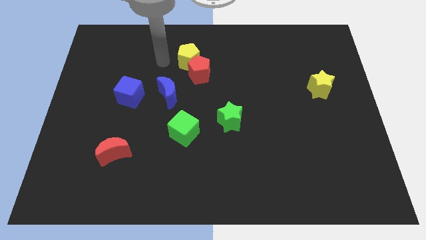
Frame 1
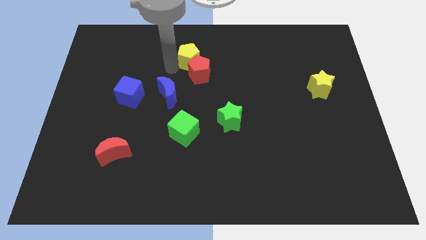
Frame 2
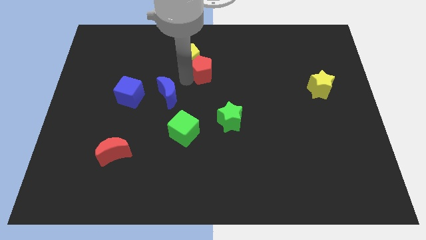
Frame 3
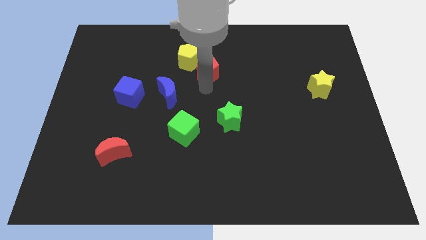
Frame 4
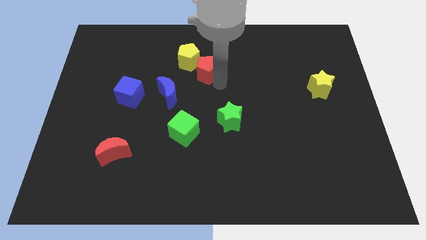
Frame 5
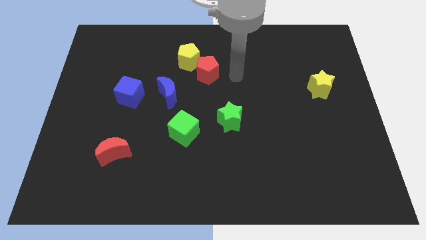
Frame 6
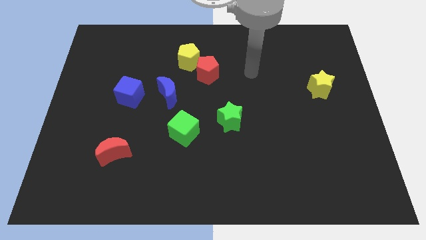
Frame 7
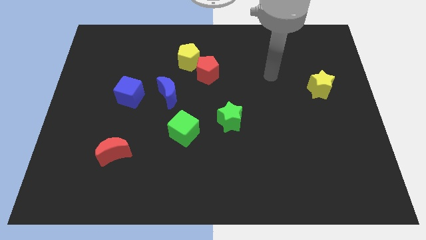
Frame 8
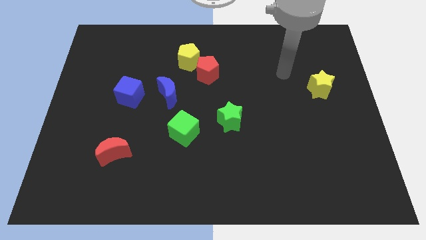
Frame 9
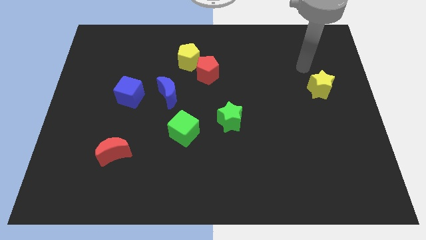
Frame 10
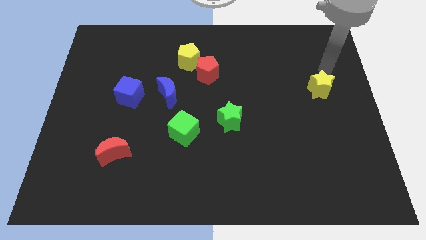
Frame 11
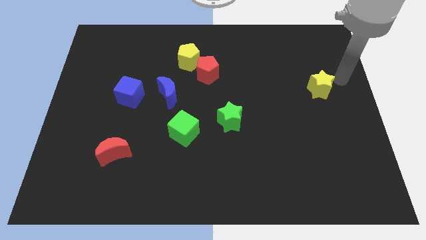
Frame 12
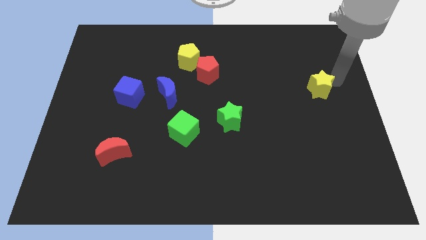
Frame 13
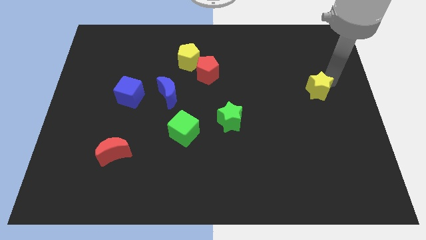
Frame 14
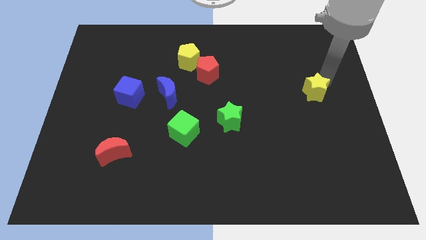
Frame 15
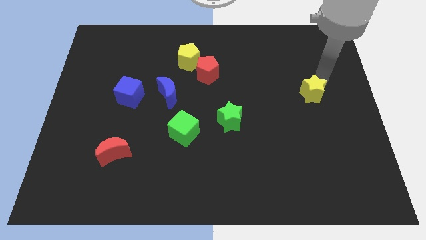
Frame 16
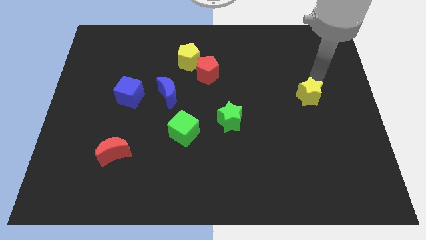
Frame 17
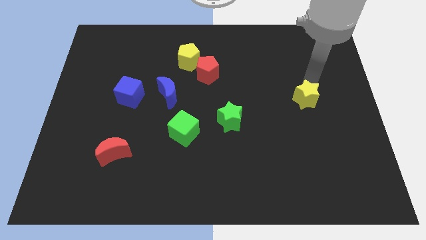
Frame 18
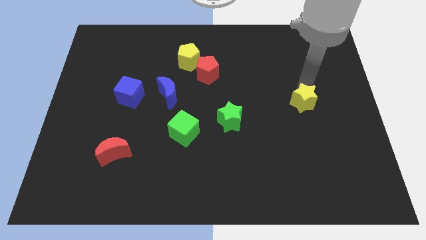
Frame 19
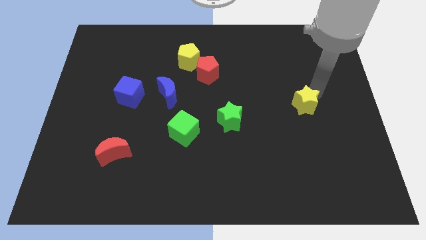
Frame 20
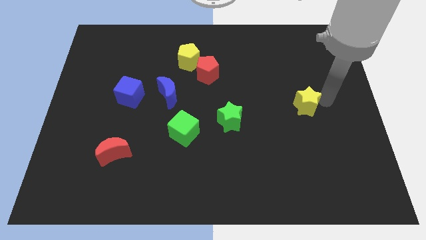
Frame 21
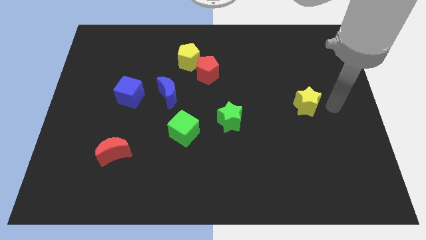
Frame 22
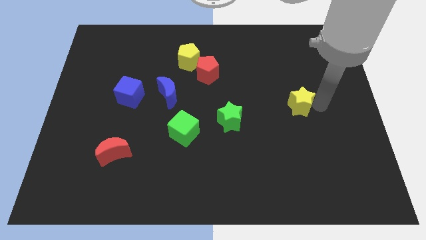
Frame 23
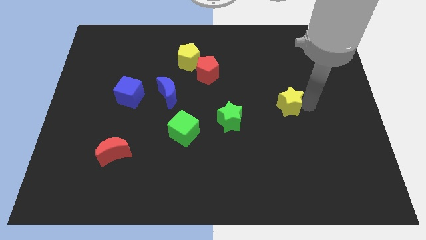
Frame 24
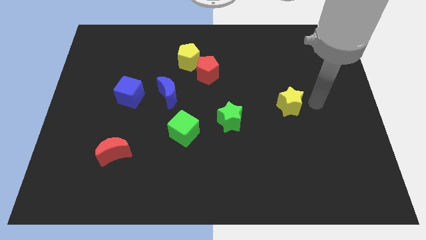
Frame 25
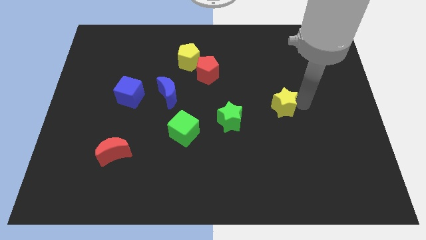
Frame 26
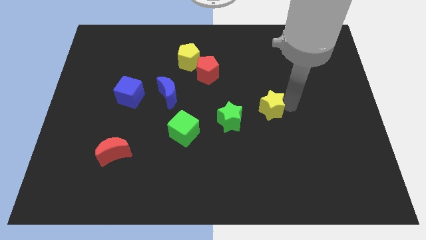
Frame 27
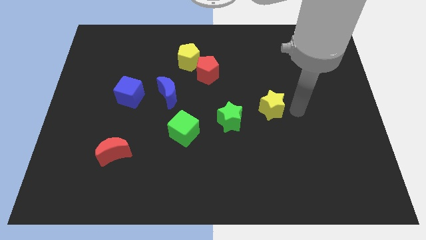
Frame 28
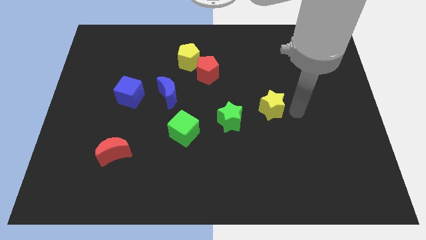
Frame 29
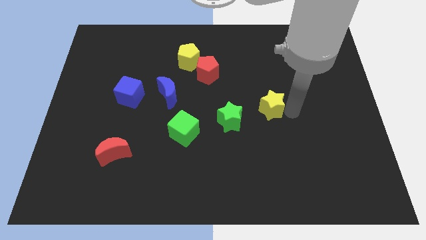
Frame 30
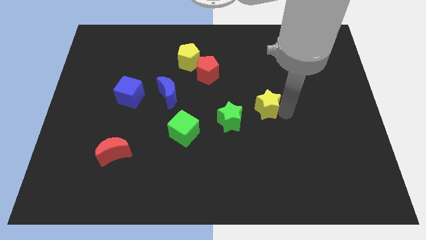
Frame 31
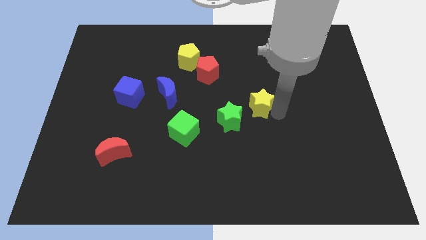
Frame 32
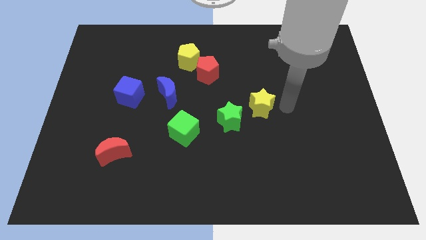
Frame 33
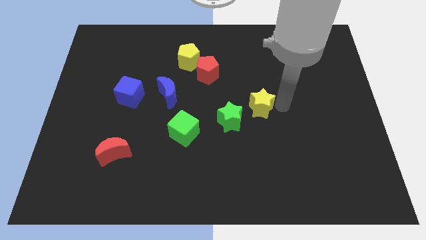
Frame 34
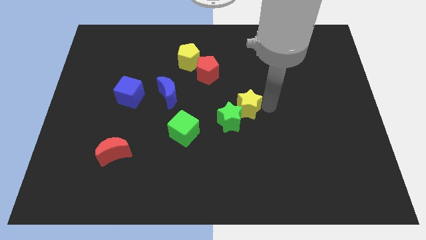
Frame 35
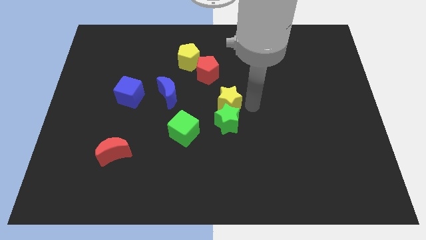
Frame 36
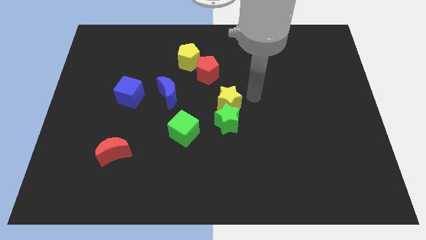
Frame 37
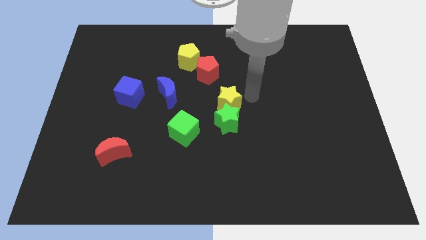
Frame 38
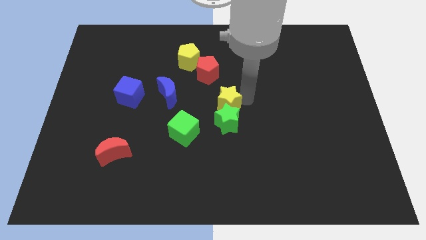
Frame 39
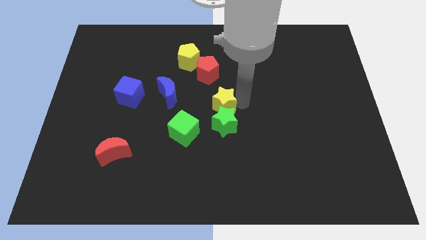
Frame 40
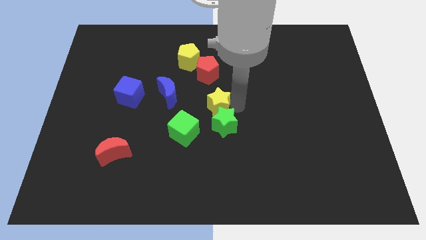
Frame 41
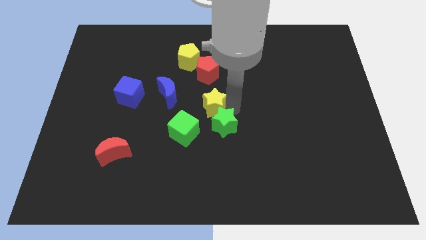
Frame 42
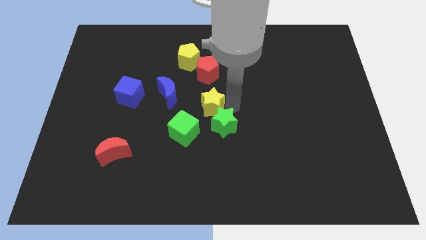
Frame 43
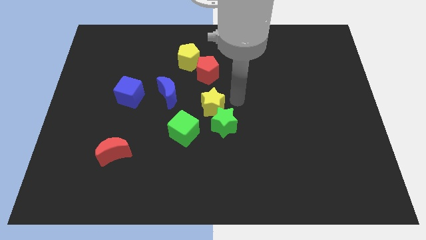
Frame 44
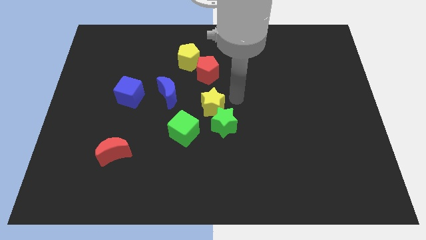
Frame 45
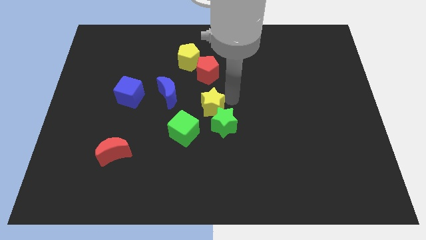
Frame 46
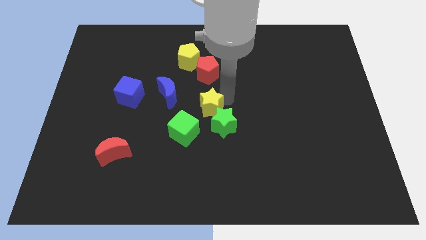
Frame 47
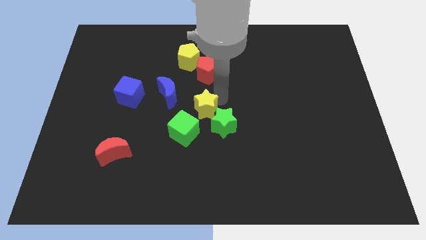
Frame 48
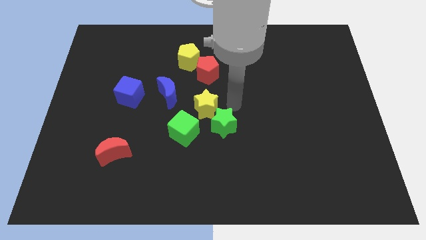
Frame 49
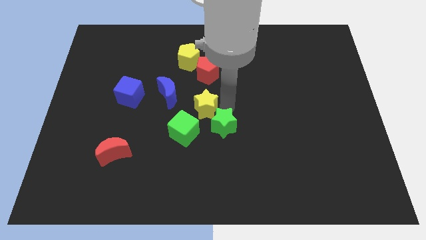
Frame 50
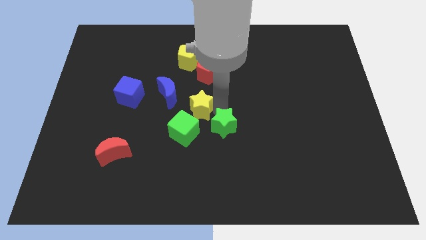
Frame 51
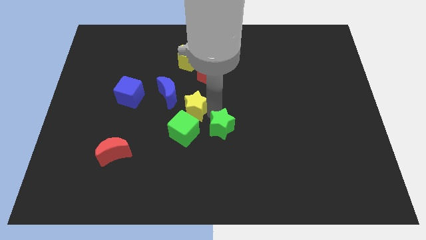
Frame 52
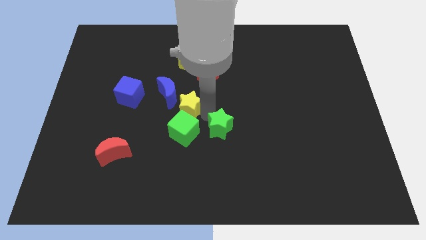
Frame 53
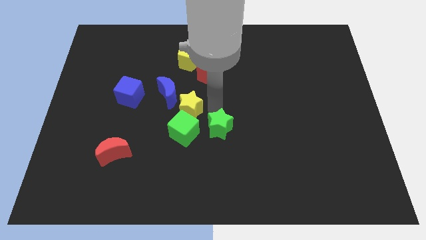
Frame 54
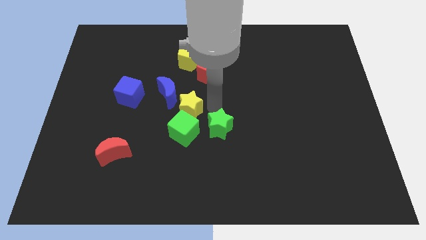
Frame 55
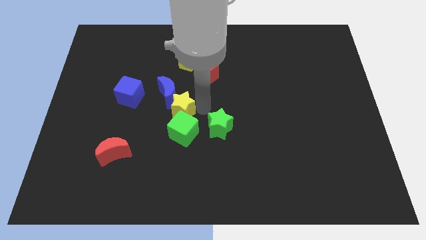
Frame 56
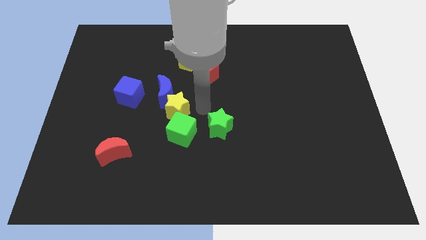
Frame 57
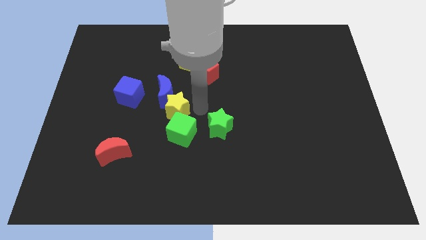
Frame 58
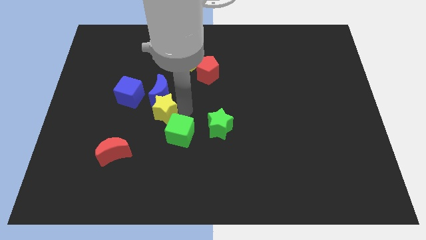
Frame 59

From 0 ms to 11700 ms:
move the yellow star diagonally down and to the right of the blue cube
